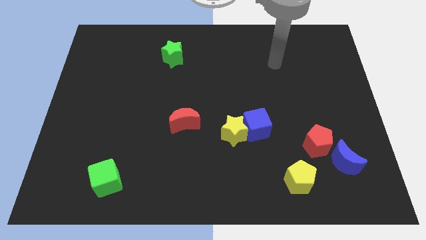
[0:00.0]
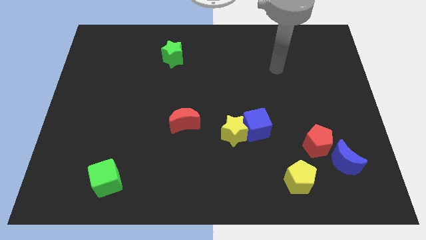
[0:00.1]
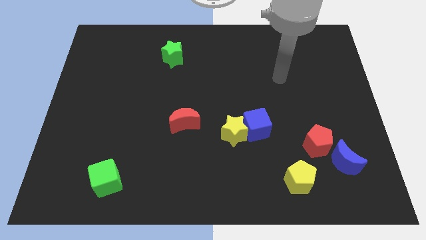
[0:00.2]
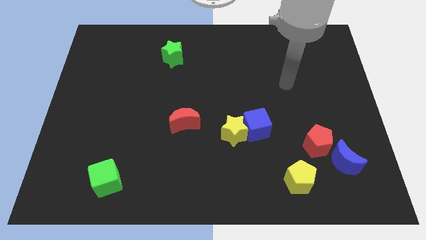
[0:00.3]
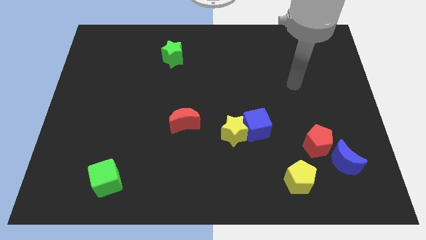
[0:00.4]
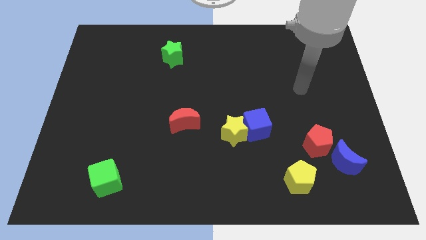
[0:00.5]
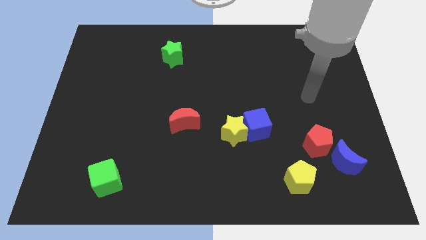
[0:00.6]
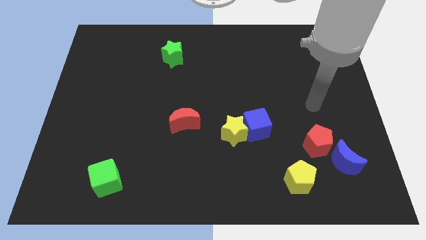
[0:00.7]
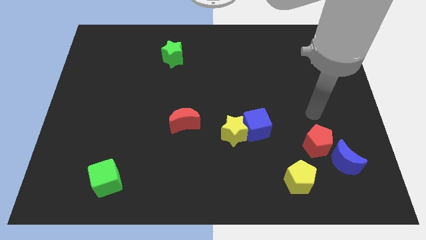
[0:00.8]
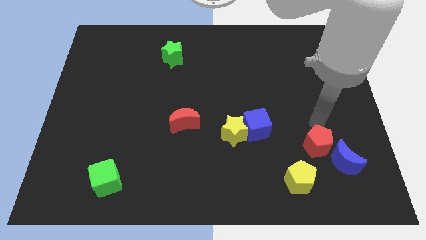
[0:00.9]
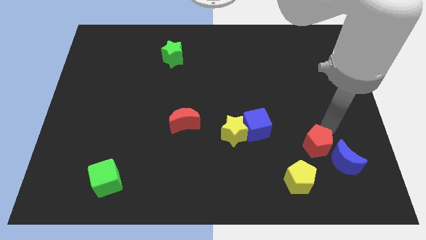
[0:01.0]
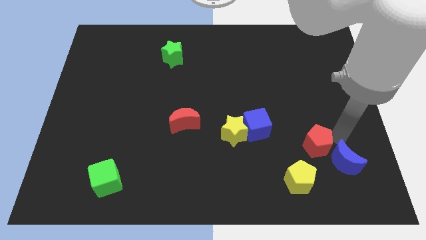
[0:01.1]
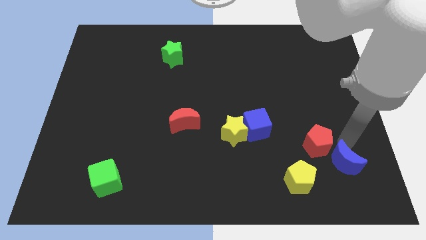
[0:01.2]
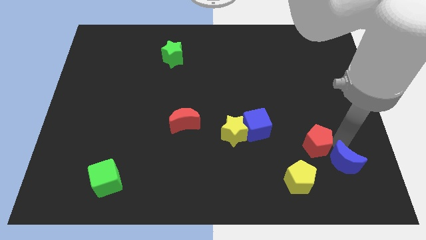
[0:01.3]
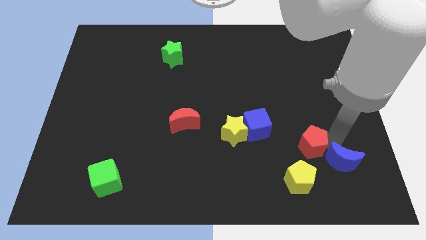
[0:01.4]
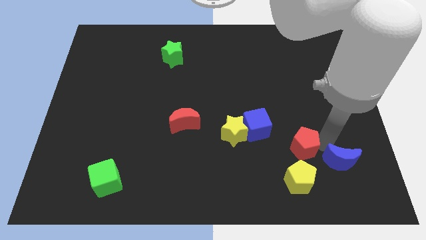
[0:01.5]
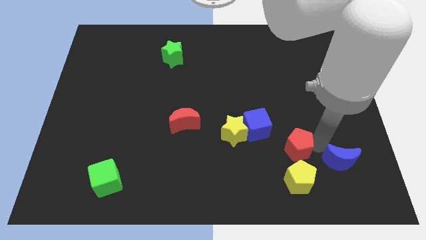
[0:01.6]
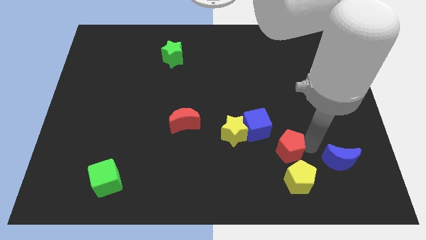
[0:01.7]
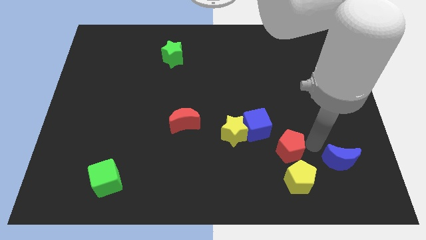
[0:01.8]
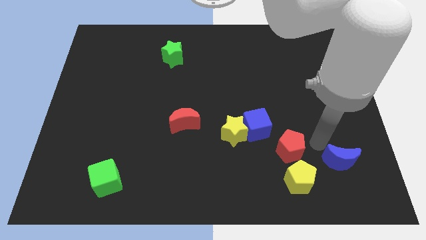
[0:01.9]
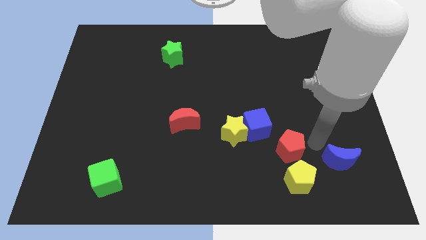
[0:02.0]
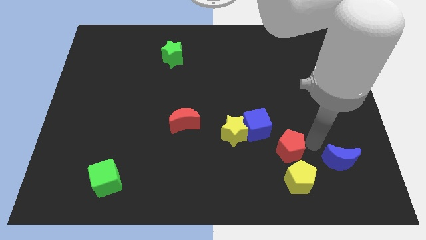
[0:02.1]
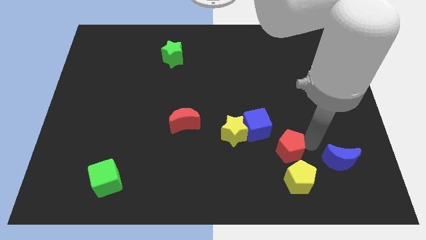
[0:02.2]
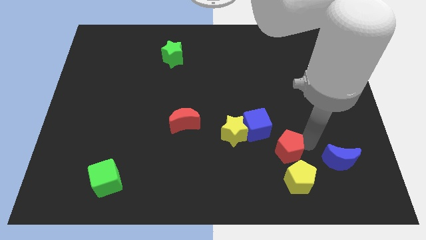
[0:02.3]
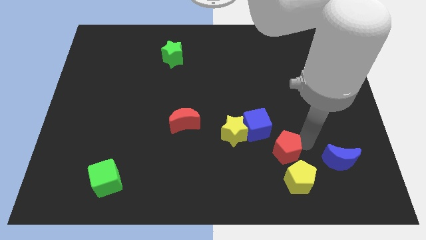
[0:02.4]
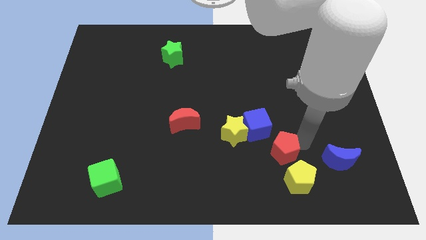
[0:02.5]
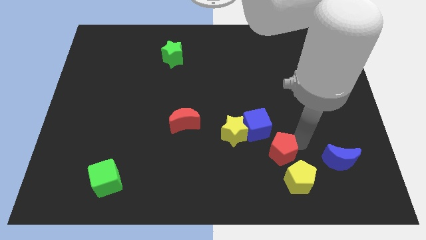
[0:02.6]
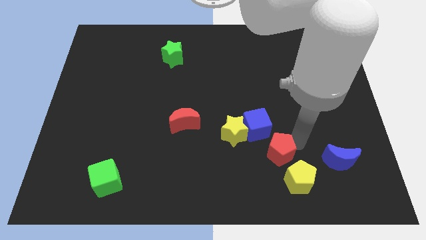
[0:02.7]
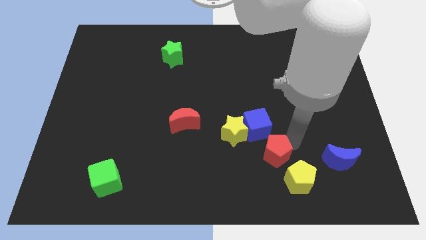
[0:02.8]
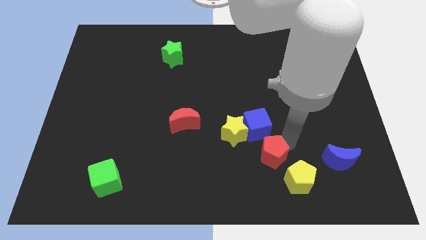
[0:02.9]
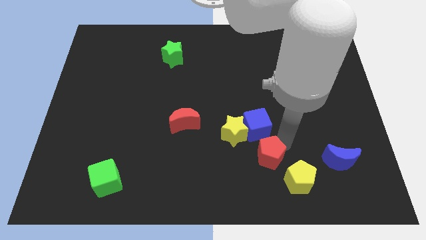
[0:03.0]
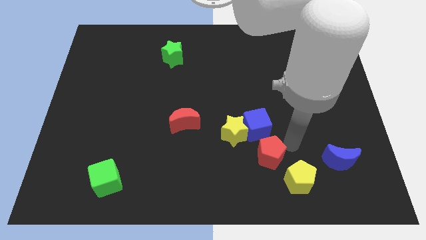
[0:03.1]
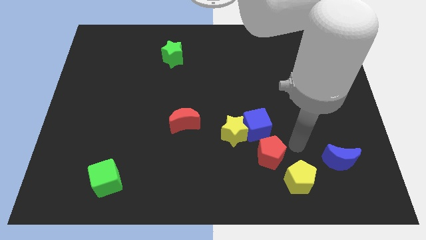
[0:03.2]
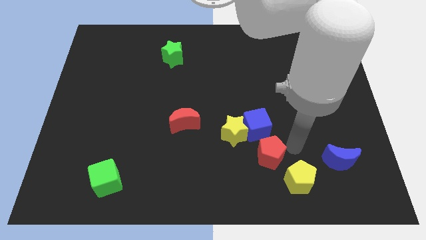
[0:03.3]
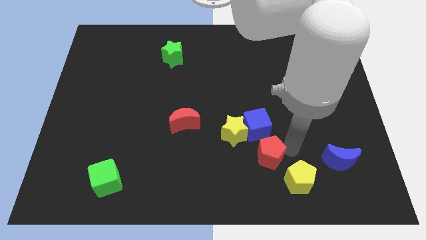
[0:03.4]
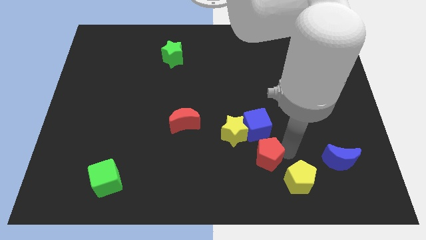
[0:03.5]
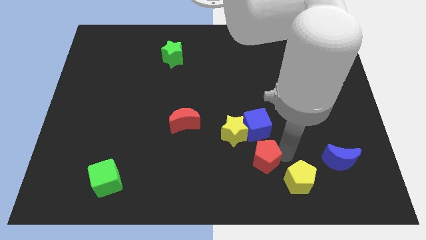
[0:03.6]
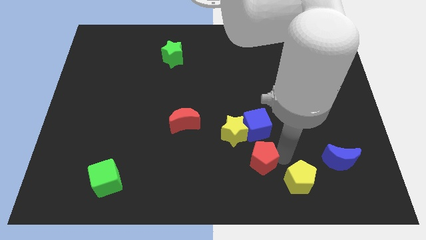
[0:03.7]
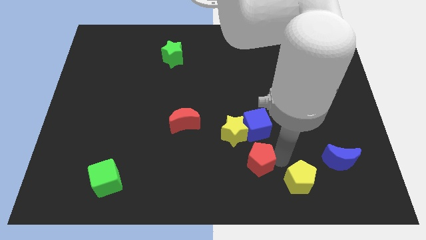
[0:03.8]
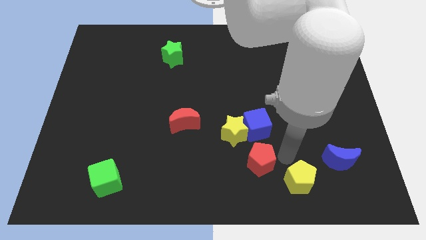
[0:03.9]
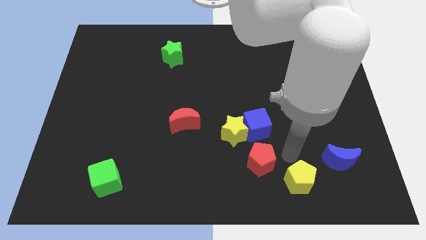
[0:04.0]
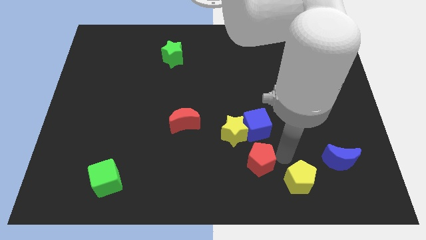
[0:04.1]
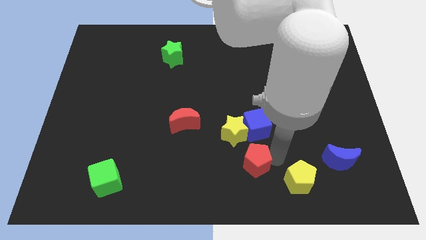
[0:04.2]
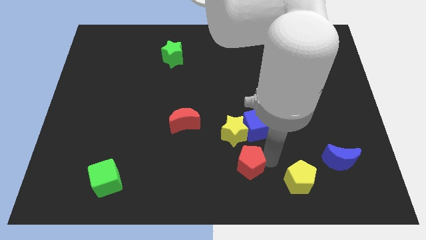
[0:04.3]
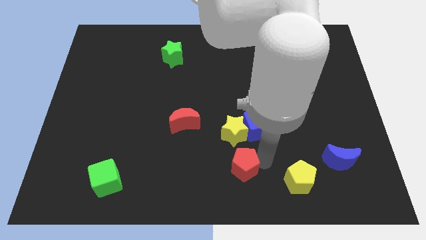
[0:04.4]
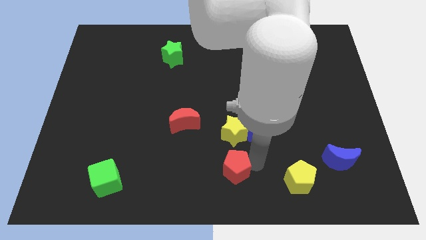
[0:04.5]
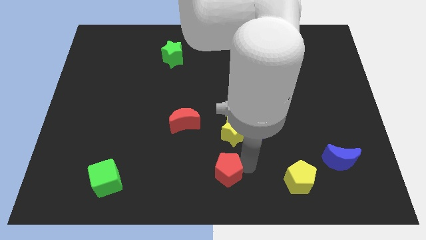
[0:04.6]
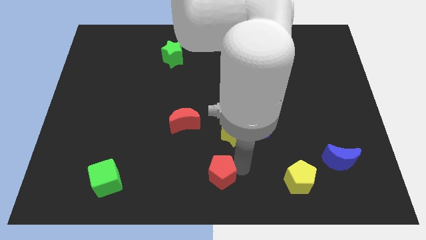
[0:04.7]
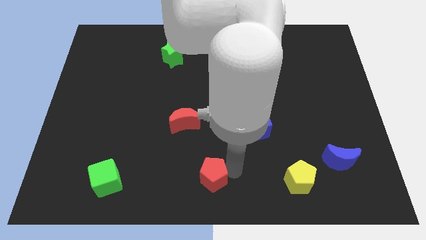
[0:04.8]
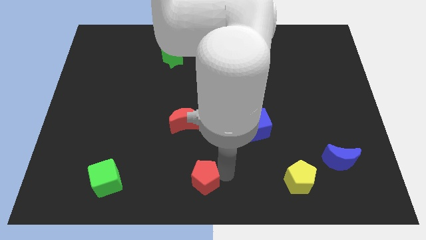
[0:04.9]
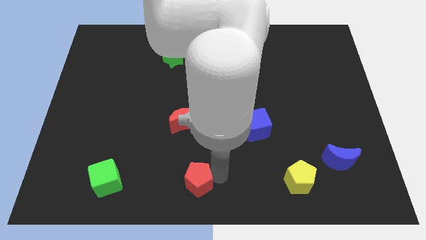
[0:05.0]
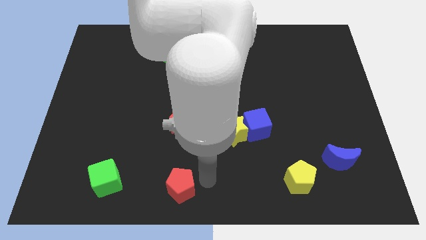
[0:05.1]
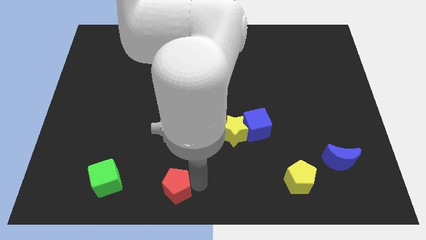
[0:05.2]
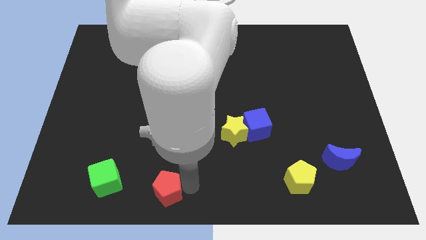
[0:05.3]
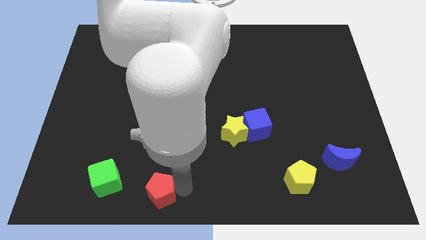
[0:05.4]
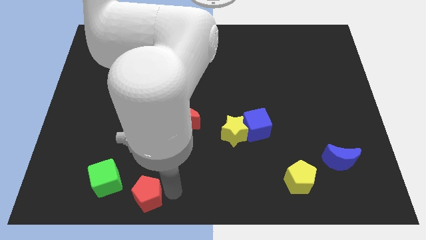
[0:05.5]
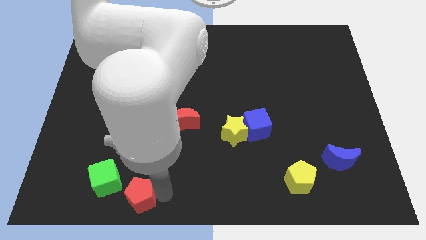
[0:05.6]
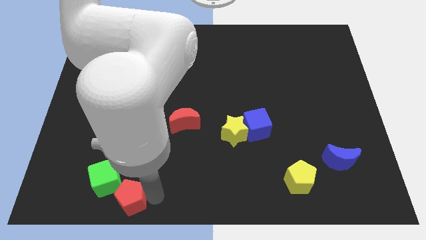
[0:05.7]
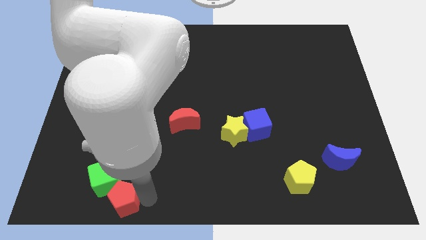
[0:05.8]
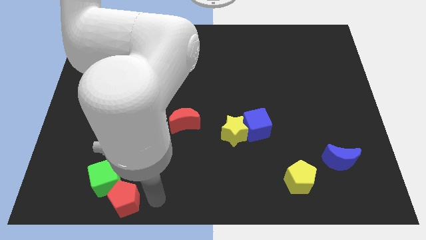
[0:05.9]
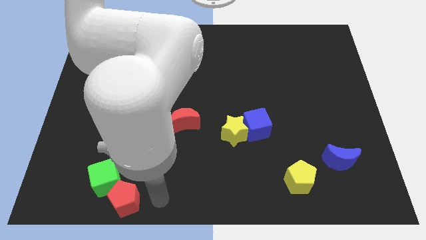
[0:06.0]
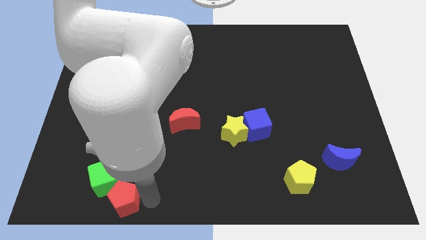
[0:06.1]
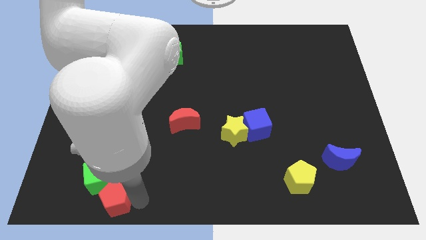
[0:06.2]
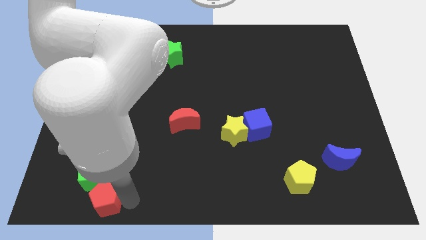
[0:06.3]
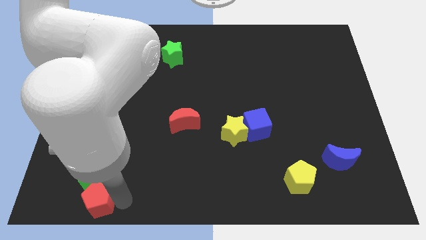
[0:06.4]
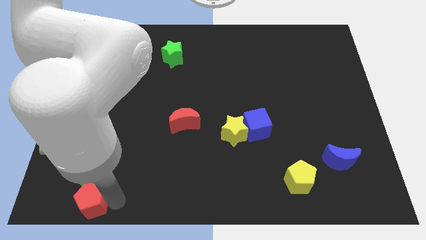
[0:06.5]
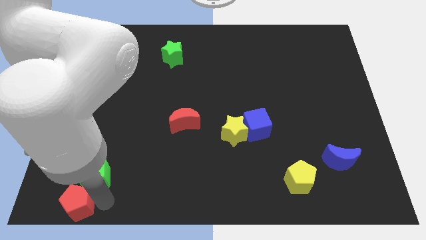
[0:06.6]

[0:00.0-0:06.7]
move the red pentagon to the bottom left
